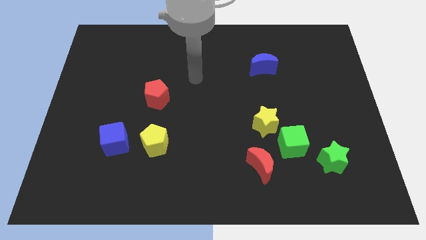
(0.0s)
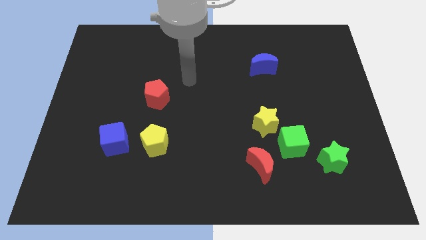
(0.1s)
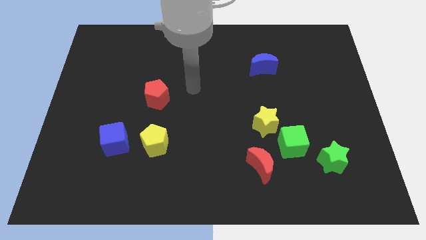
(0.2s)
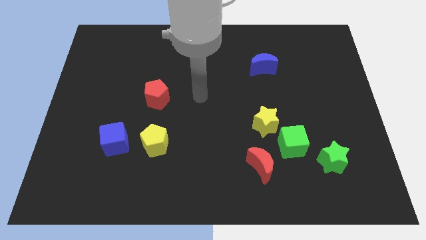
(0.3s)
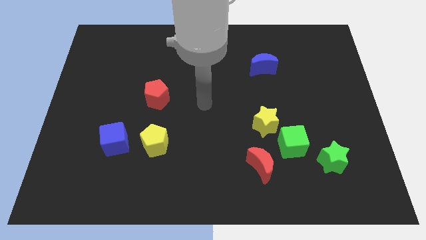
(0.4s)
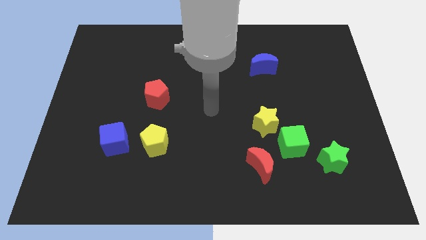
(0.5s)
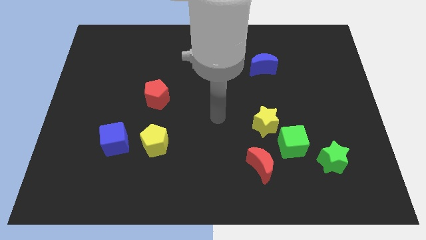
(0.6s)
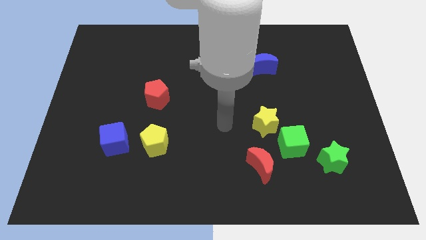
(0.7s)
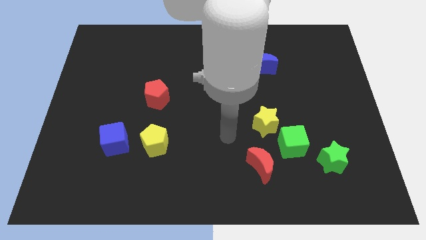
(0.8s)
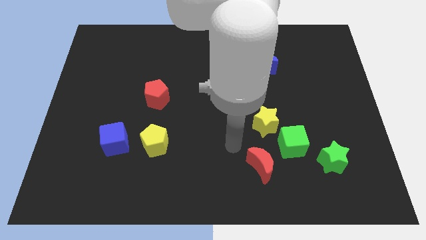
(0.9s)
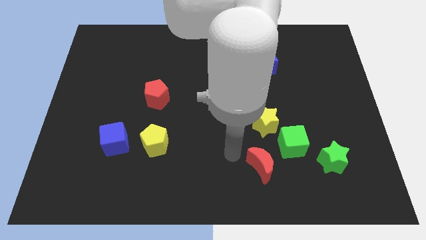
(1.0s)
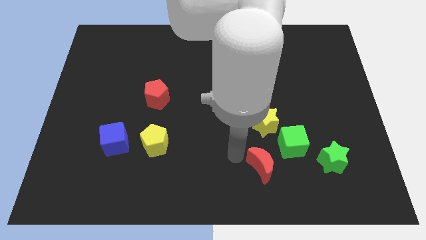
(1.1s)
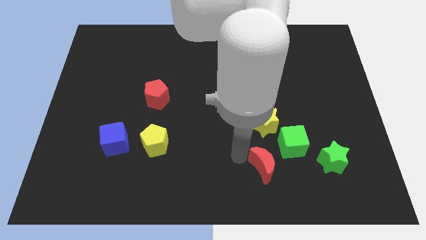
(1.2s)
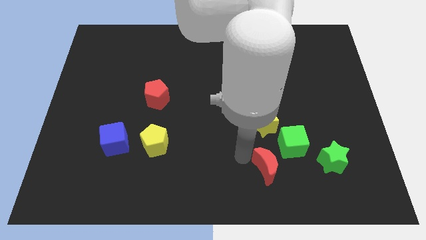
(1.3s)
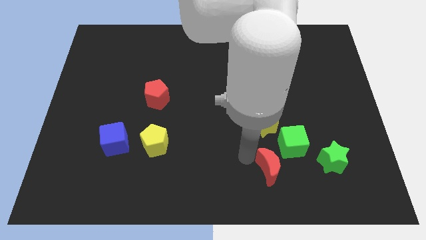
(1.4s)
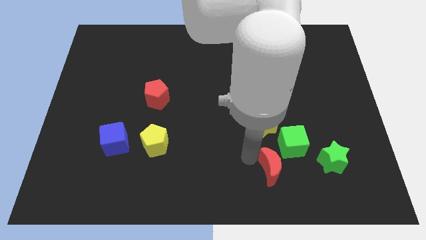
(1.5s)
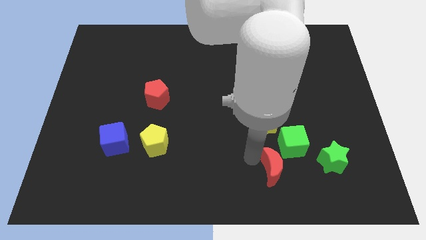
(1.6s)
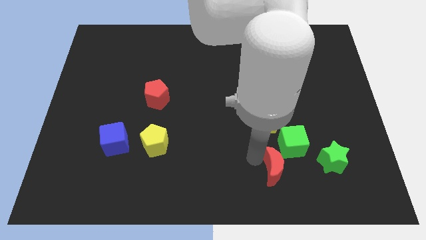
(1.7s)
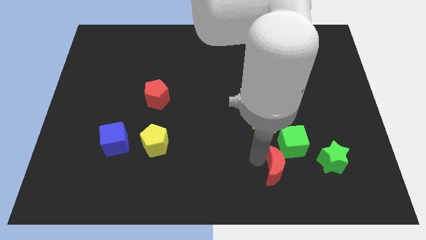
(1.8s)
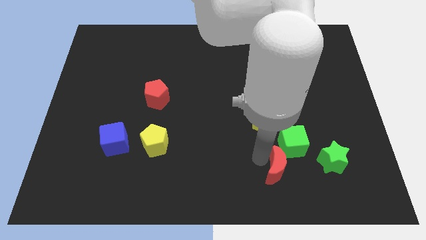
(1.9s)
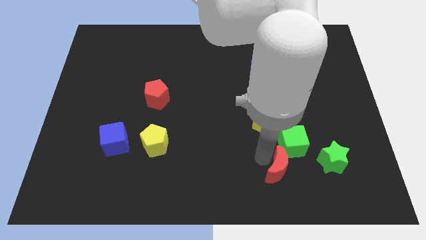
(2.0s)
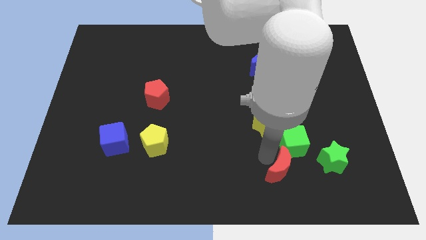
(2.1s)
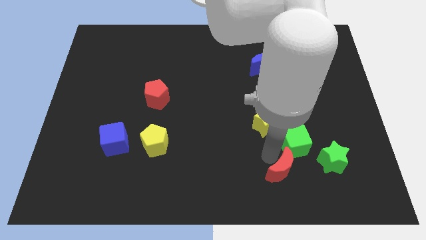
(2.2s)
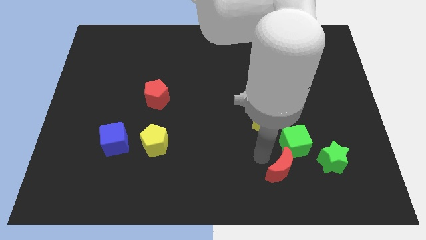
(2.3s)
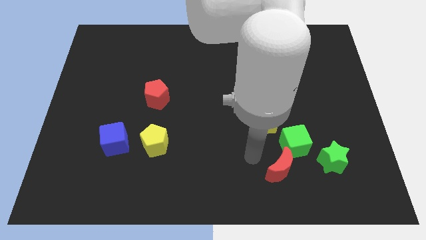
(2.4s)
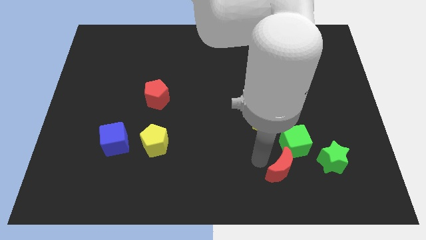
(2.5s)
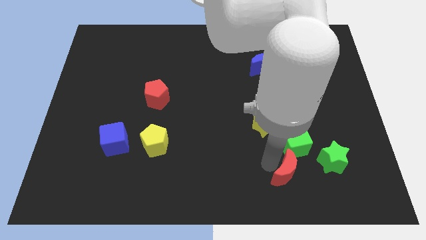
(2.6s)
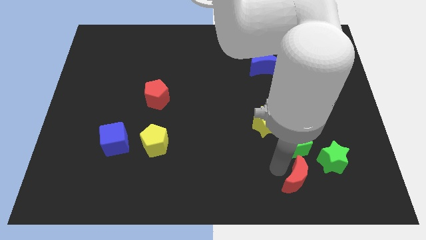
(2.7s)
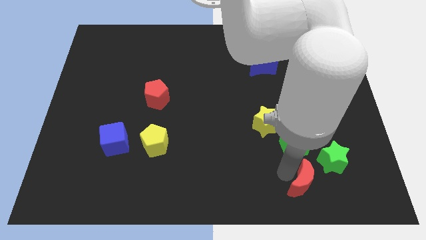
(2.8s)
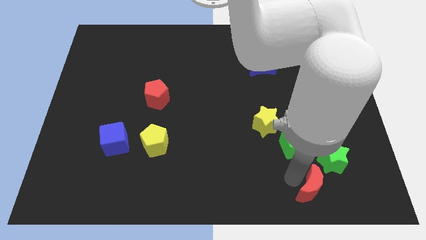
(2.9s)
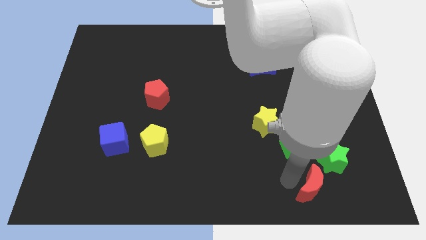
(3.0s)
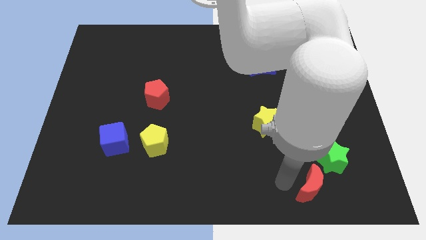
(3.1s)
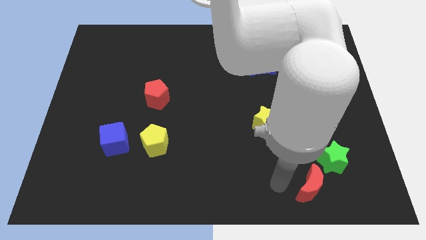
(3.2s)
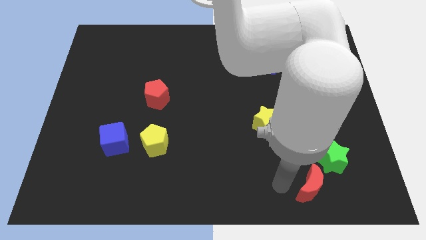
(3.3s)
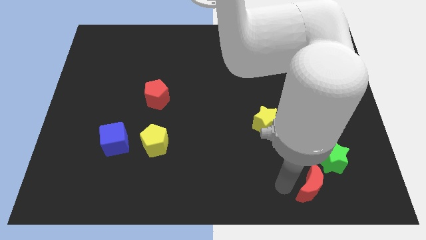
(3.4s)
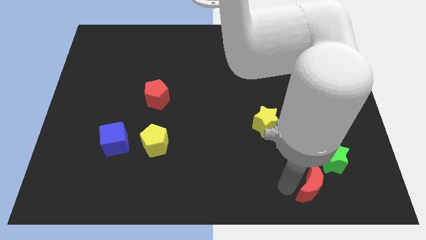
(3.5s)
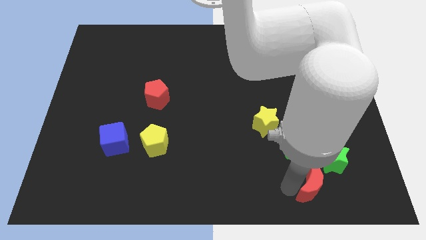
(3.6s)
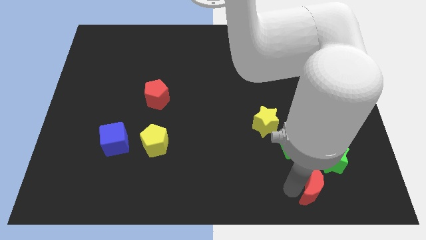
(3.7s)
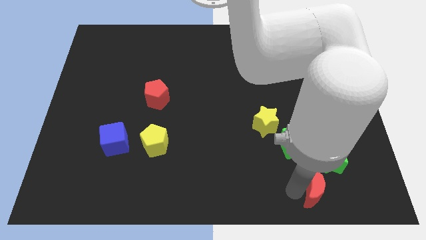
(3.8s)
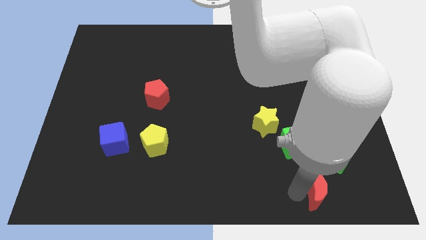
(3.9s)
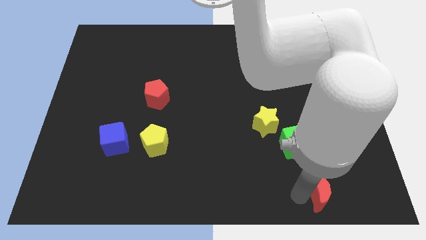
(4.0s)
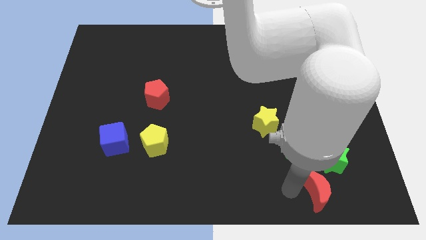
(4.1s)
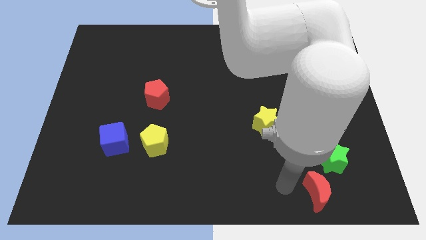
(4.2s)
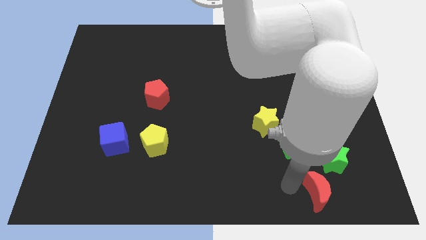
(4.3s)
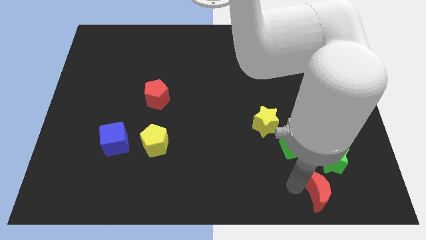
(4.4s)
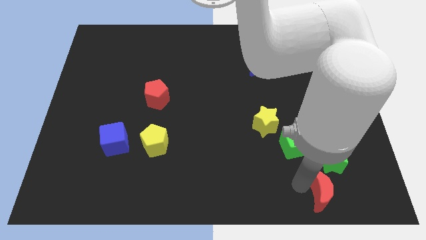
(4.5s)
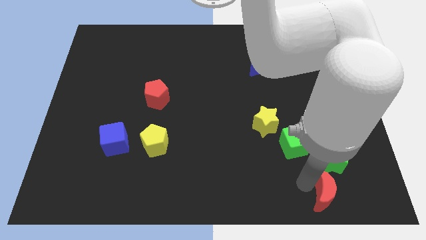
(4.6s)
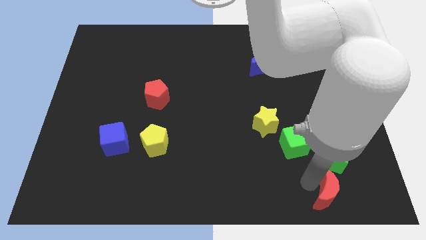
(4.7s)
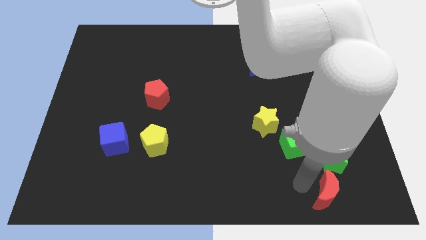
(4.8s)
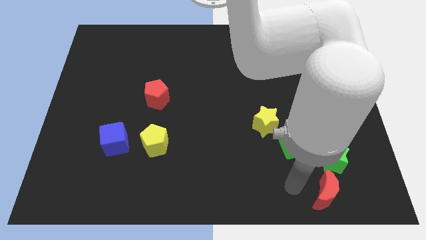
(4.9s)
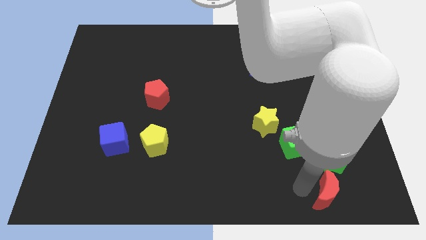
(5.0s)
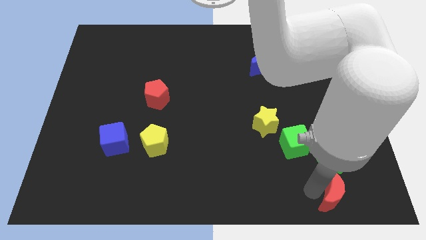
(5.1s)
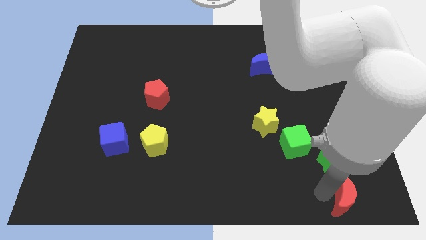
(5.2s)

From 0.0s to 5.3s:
move the red moon to the lower right corner

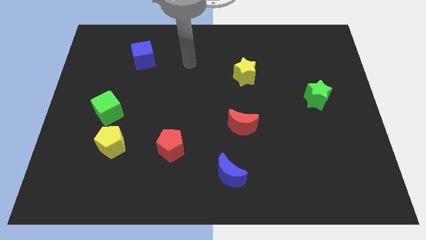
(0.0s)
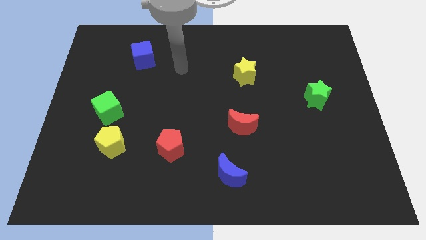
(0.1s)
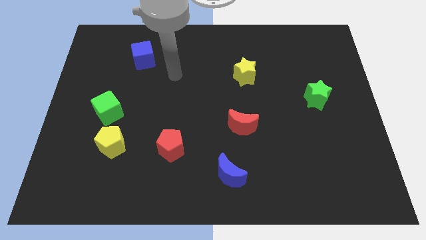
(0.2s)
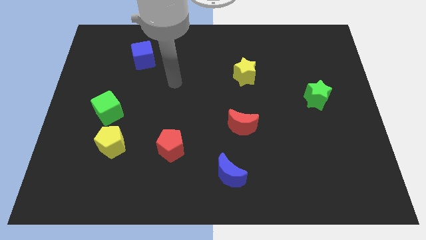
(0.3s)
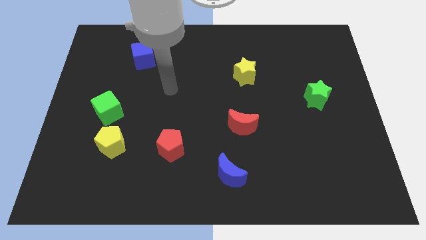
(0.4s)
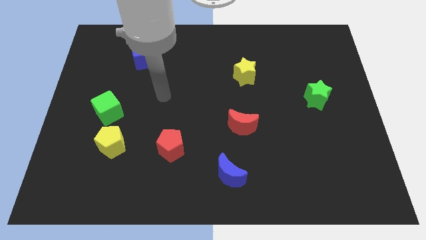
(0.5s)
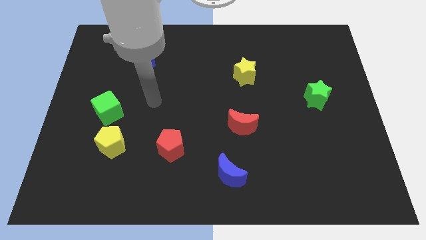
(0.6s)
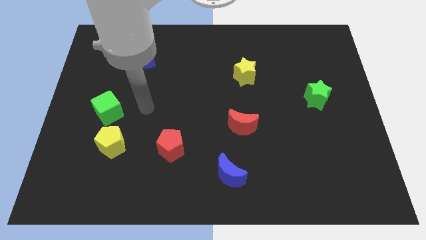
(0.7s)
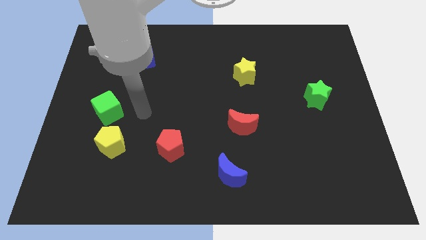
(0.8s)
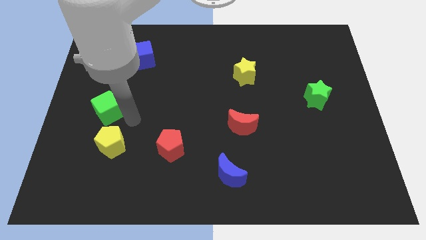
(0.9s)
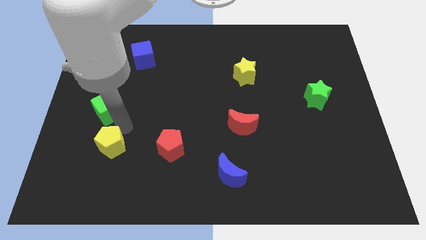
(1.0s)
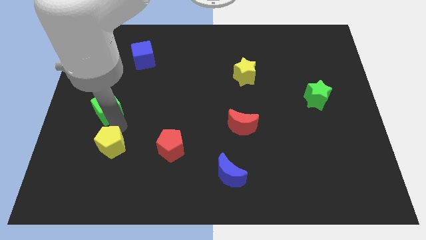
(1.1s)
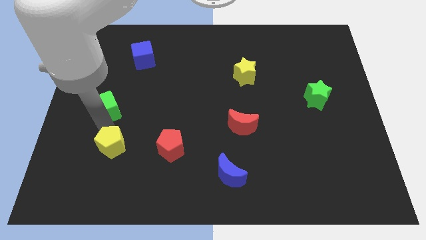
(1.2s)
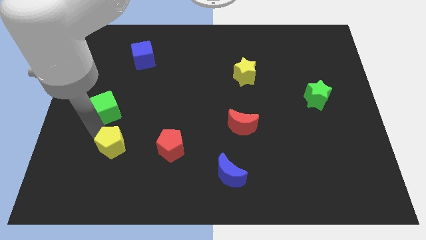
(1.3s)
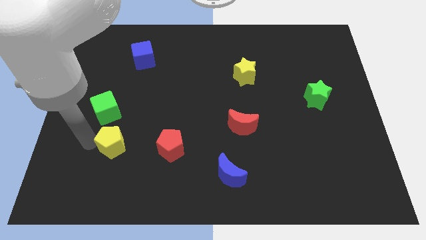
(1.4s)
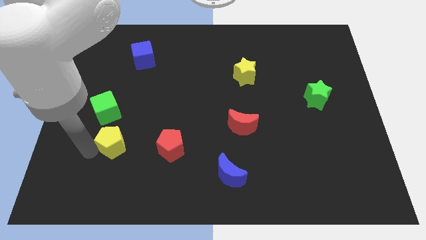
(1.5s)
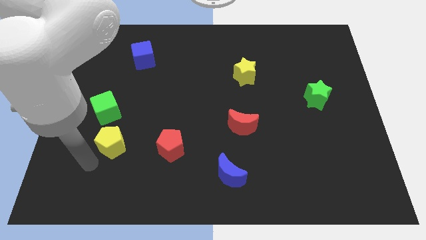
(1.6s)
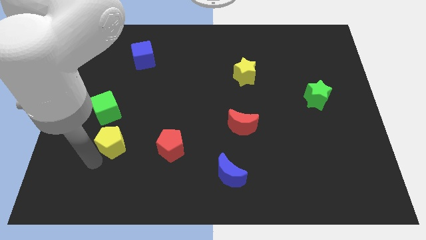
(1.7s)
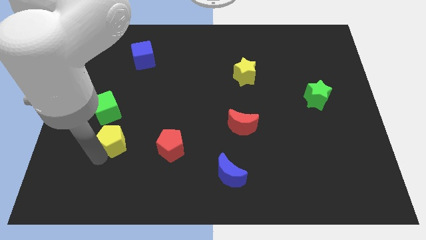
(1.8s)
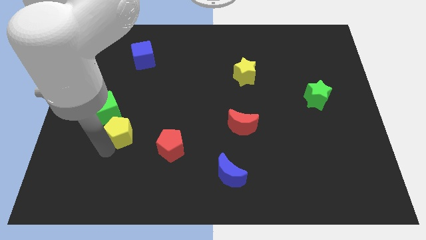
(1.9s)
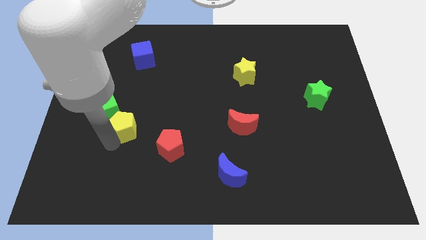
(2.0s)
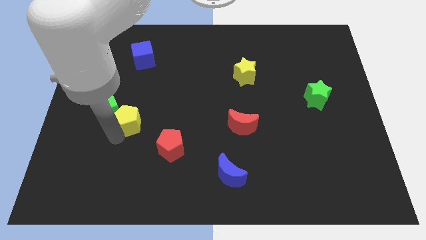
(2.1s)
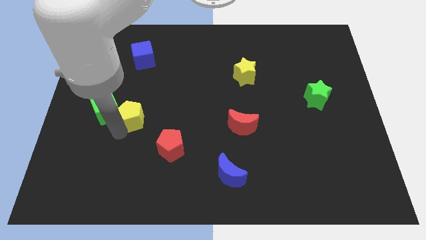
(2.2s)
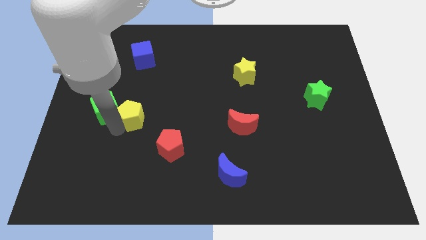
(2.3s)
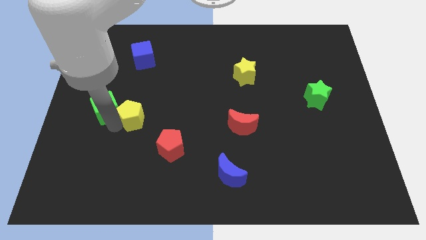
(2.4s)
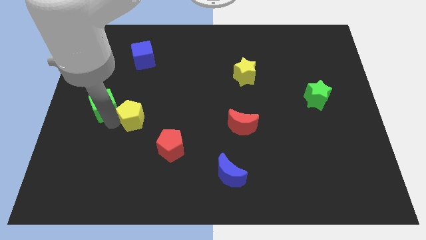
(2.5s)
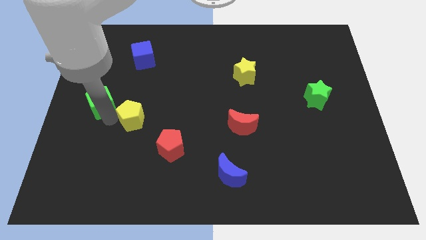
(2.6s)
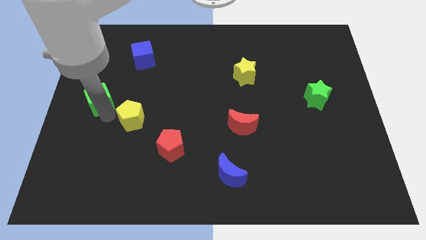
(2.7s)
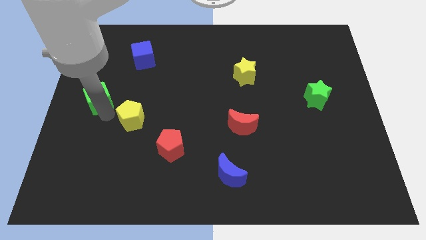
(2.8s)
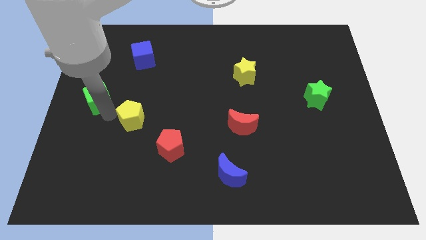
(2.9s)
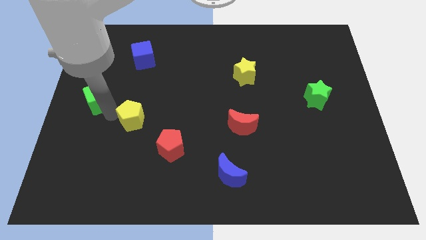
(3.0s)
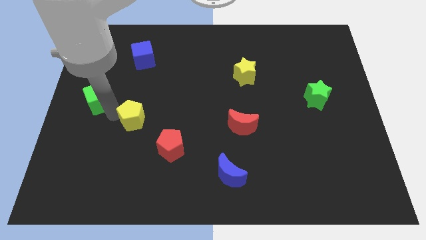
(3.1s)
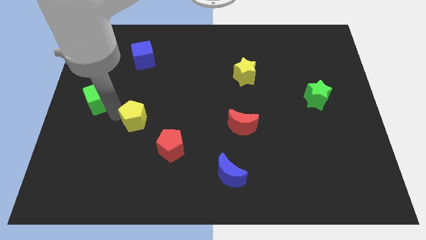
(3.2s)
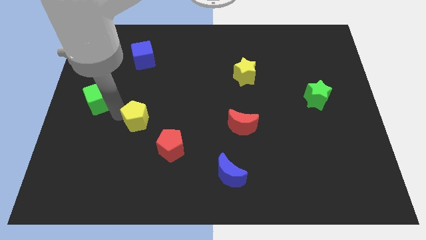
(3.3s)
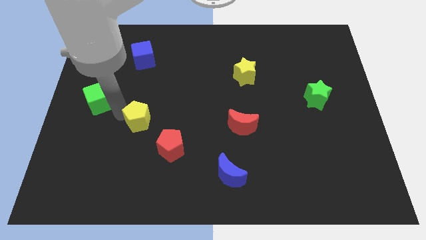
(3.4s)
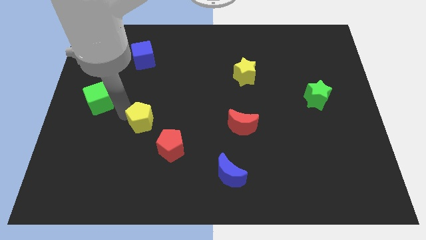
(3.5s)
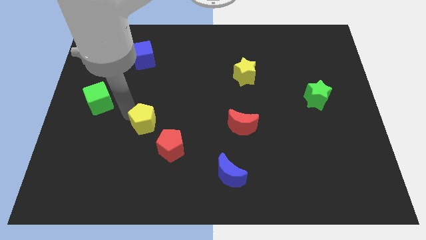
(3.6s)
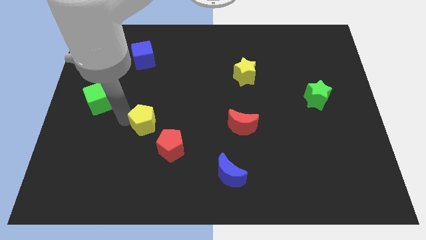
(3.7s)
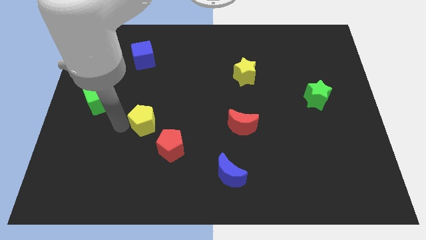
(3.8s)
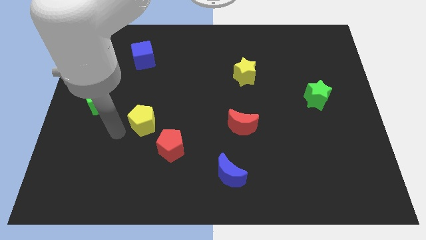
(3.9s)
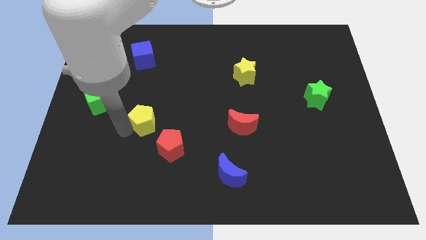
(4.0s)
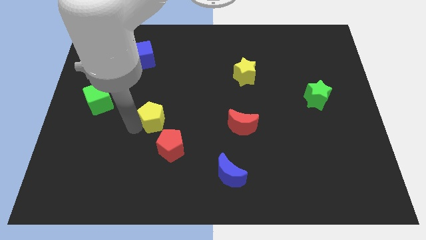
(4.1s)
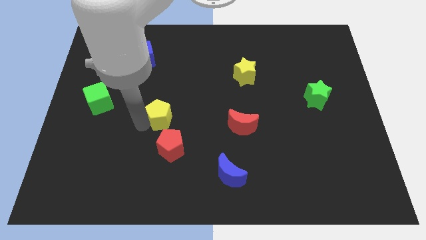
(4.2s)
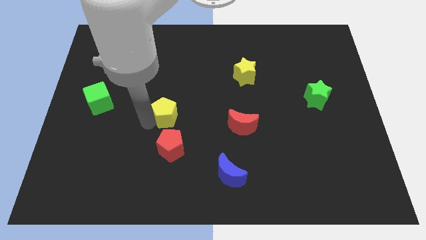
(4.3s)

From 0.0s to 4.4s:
put the yellow pentagon to the center
